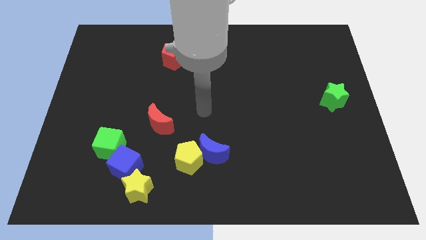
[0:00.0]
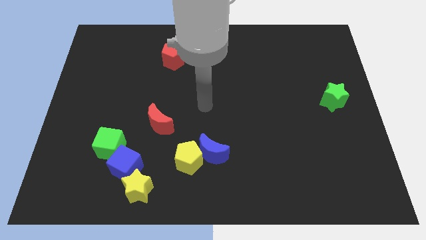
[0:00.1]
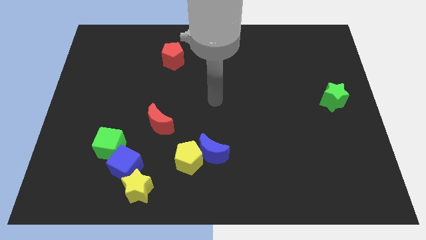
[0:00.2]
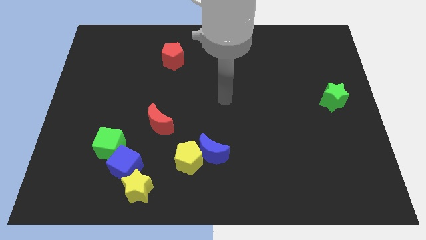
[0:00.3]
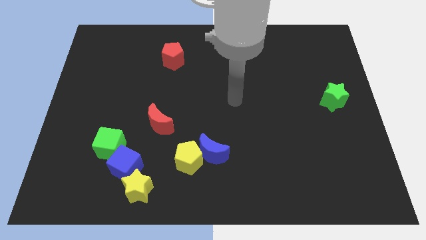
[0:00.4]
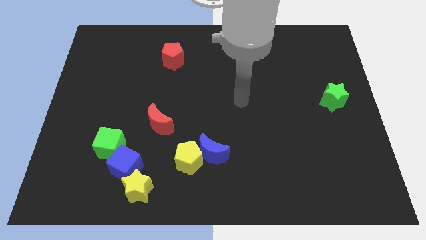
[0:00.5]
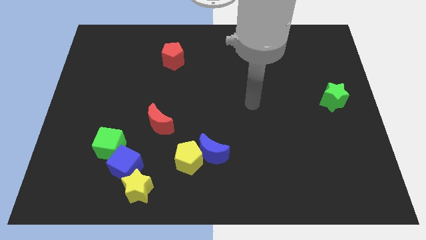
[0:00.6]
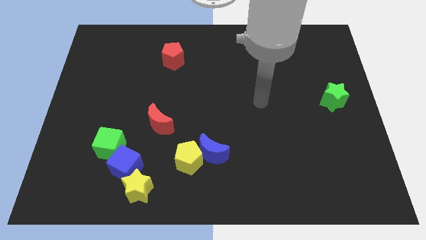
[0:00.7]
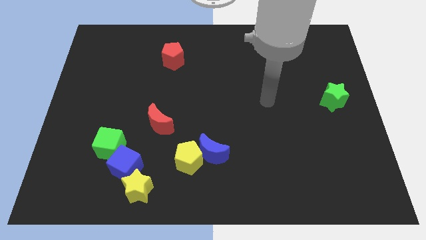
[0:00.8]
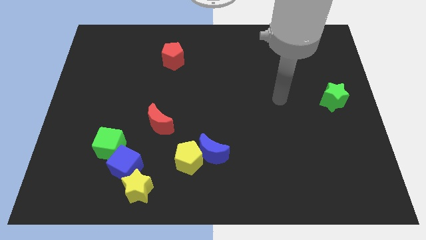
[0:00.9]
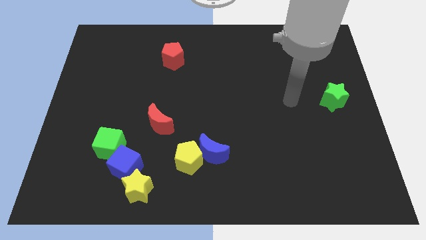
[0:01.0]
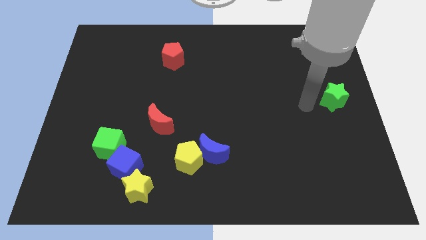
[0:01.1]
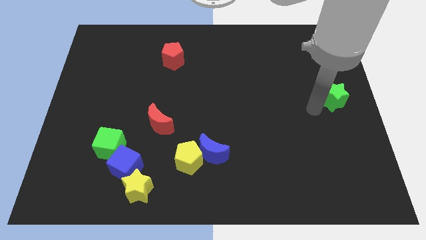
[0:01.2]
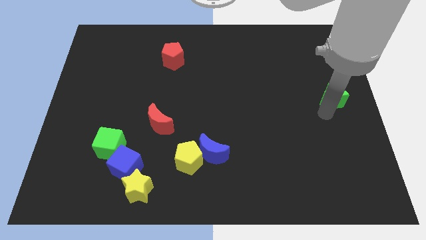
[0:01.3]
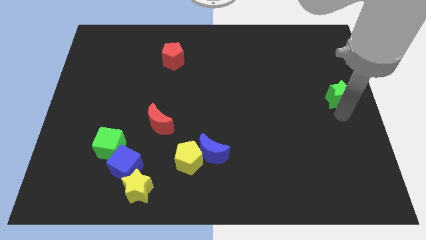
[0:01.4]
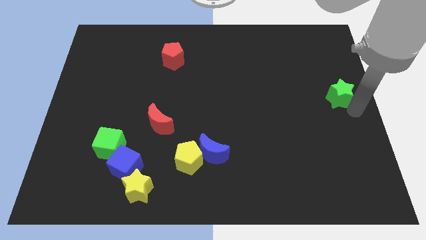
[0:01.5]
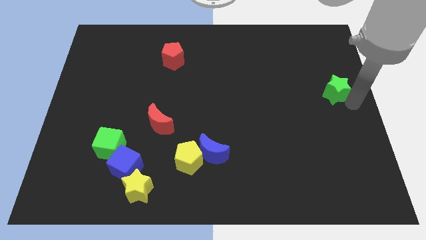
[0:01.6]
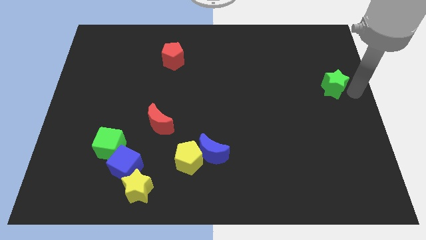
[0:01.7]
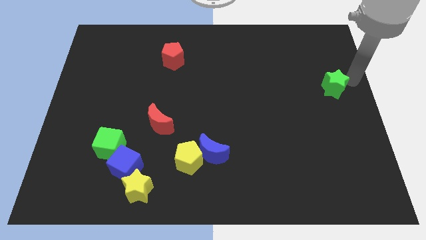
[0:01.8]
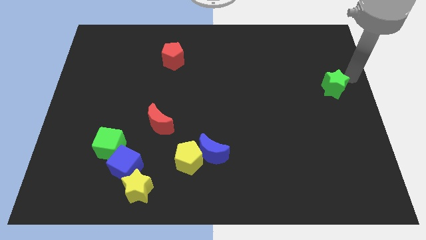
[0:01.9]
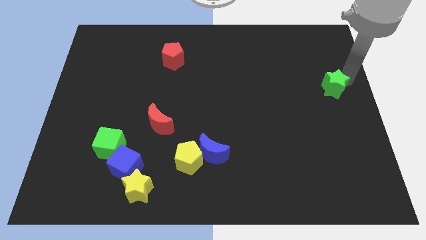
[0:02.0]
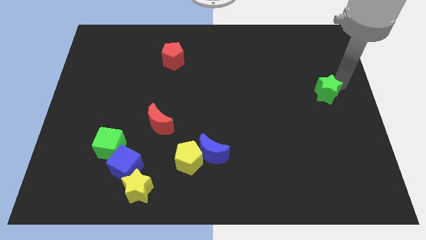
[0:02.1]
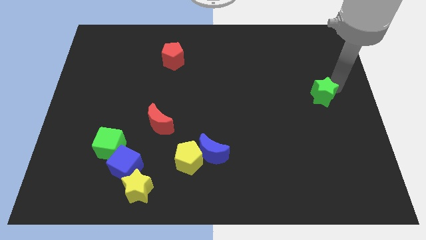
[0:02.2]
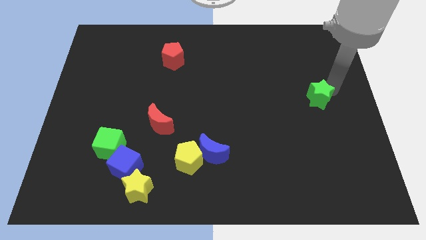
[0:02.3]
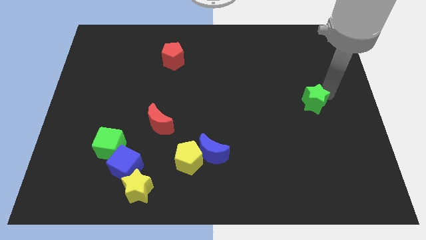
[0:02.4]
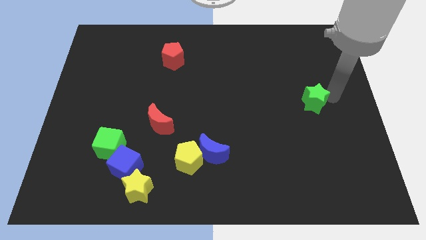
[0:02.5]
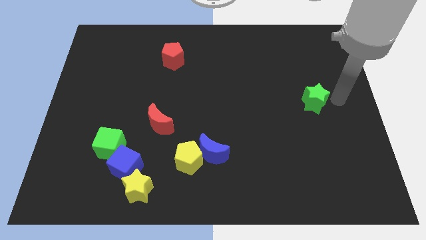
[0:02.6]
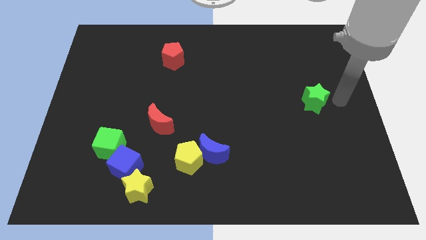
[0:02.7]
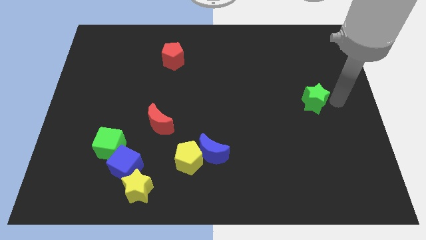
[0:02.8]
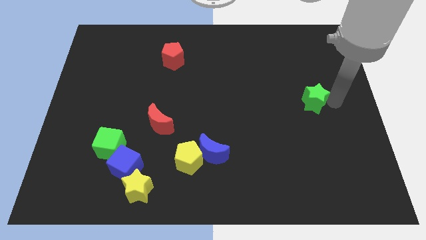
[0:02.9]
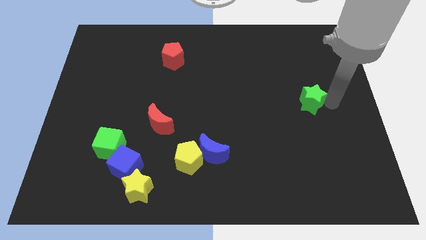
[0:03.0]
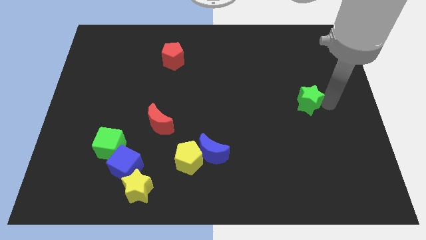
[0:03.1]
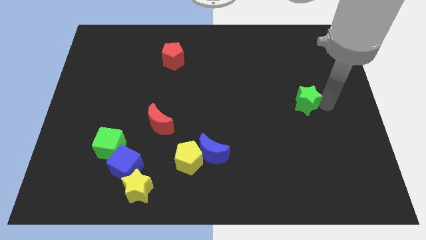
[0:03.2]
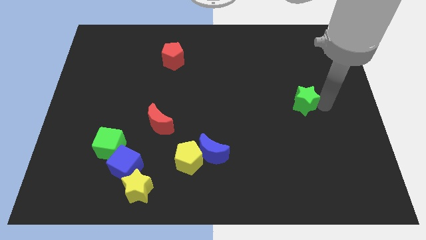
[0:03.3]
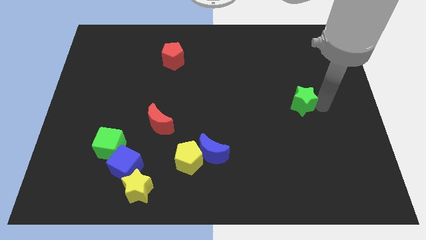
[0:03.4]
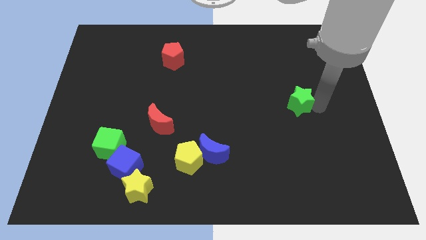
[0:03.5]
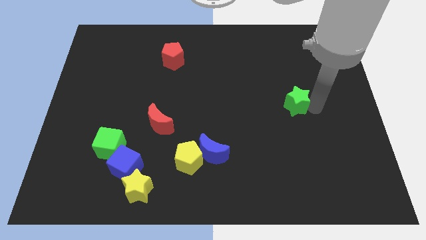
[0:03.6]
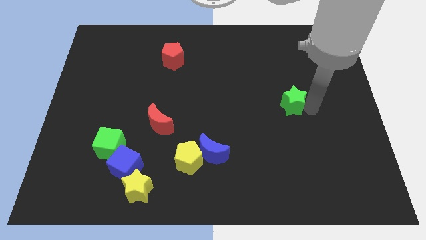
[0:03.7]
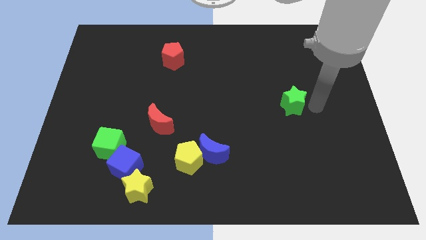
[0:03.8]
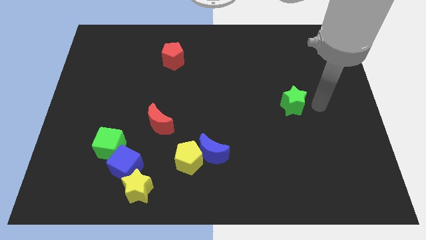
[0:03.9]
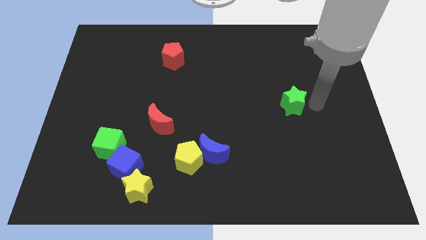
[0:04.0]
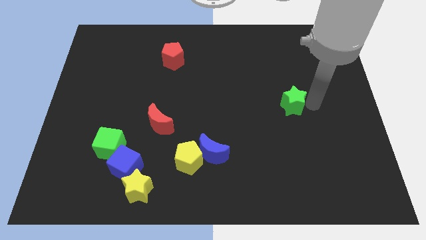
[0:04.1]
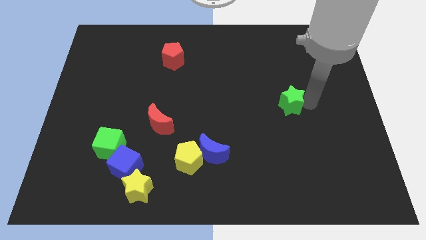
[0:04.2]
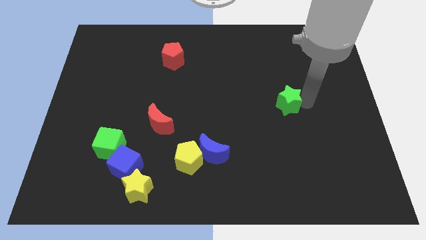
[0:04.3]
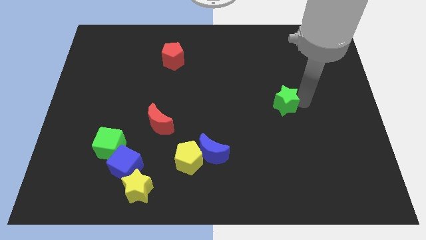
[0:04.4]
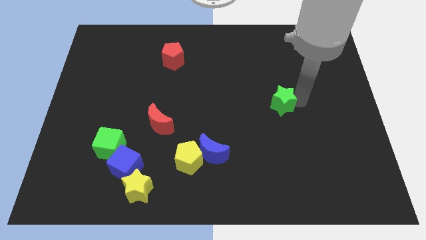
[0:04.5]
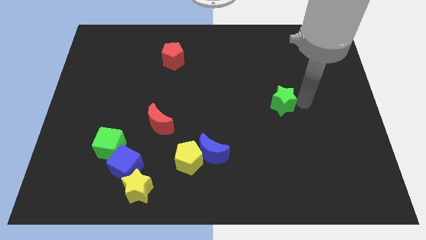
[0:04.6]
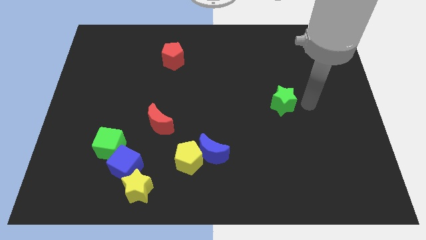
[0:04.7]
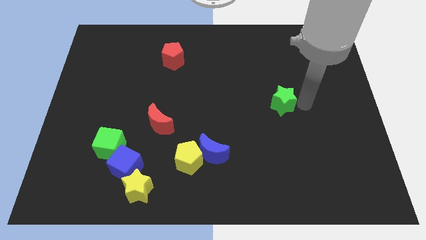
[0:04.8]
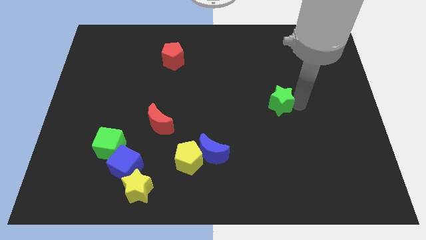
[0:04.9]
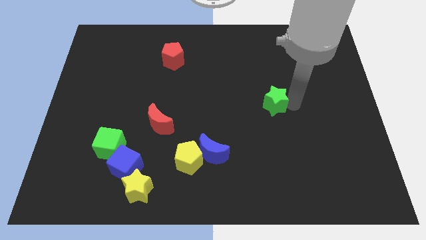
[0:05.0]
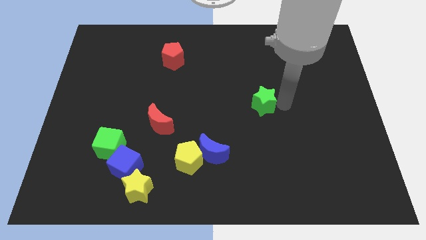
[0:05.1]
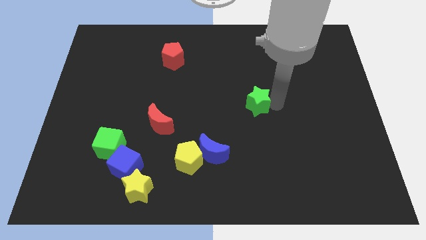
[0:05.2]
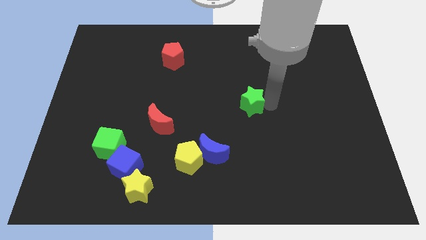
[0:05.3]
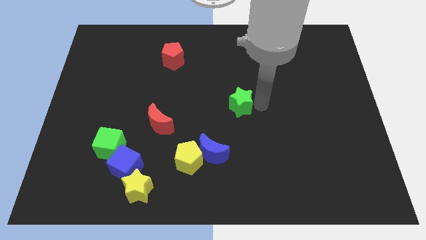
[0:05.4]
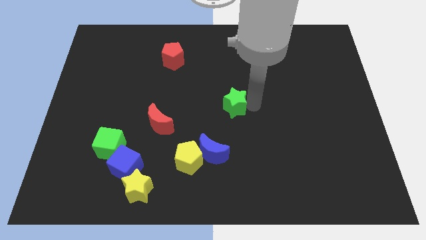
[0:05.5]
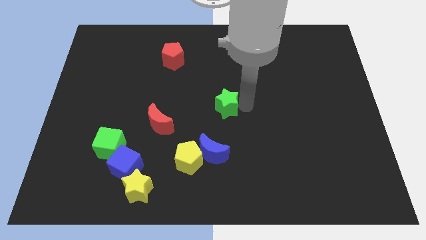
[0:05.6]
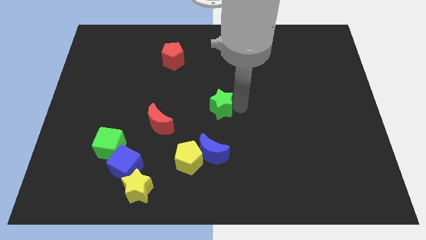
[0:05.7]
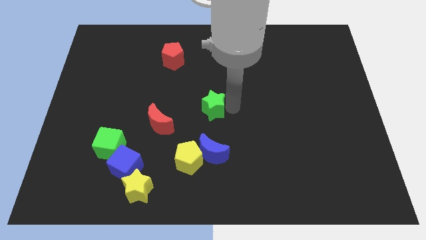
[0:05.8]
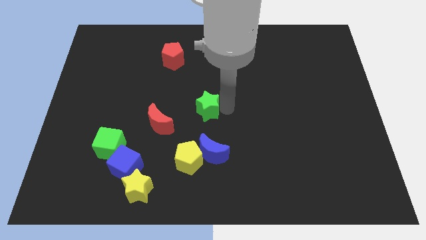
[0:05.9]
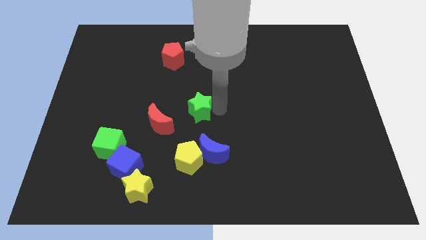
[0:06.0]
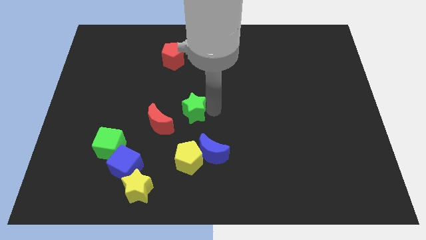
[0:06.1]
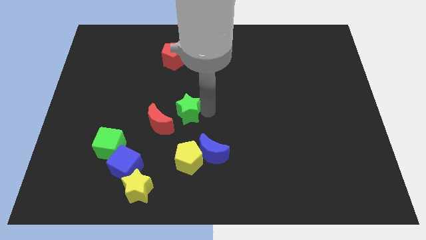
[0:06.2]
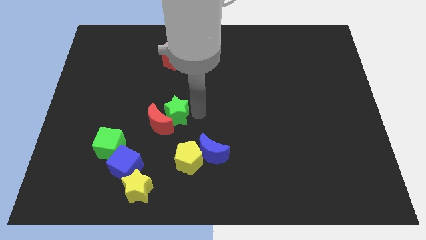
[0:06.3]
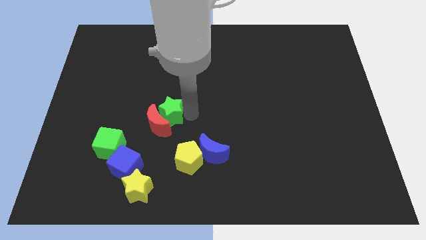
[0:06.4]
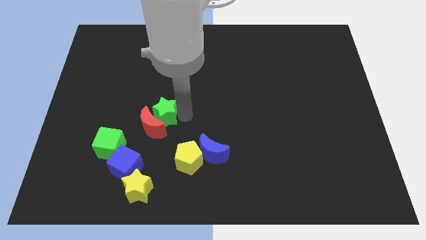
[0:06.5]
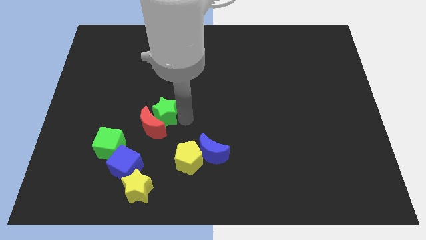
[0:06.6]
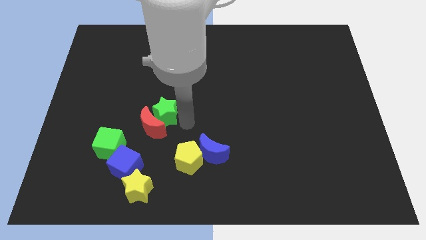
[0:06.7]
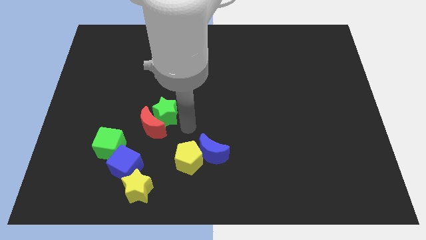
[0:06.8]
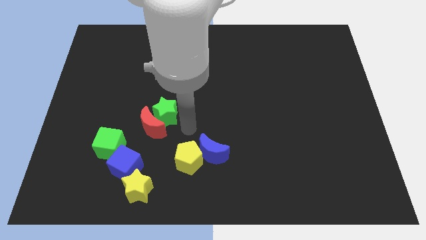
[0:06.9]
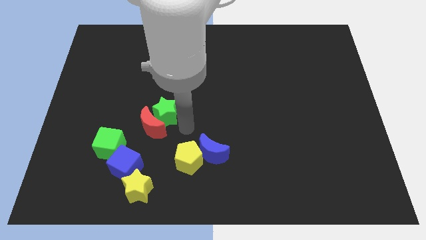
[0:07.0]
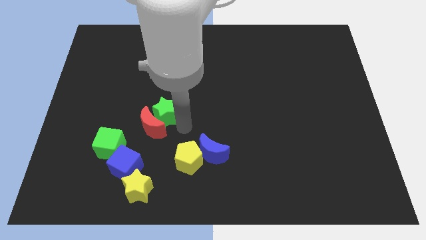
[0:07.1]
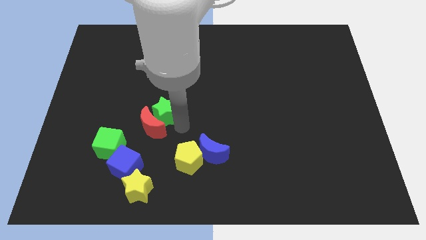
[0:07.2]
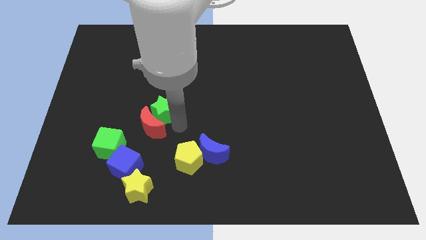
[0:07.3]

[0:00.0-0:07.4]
put the green star diagonally up and to the left of the red moon

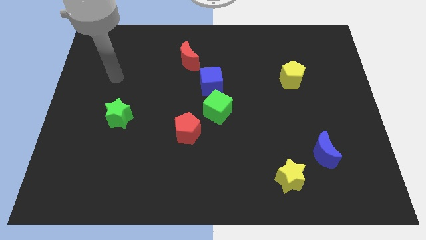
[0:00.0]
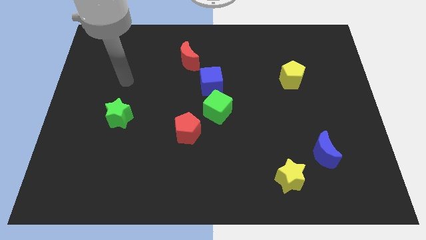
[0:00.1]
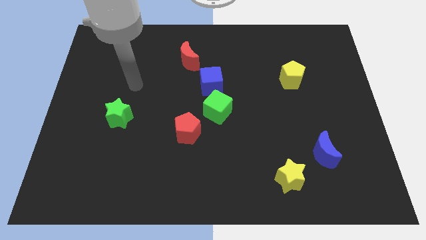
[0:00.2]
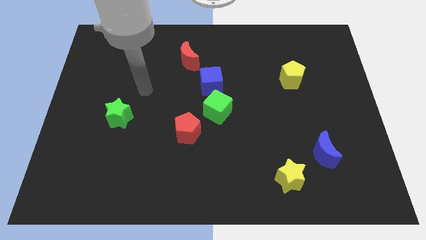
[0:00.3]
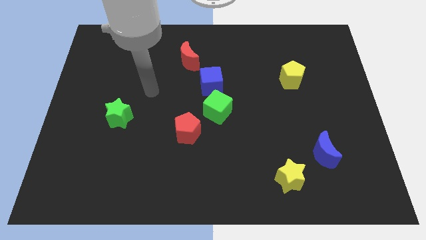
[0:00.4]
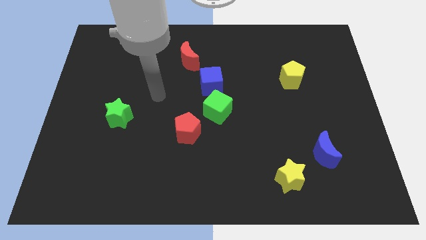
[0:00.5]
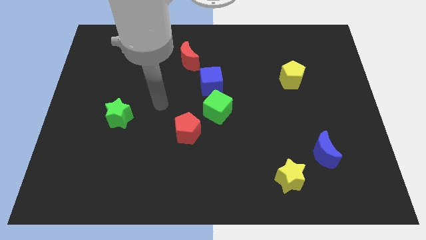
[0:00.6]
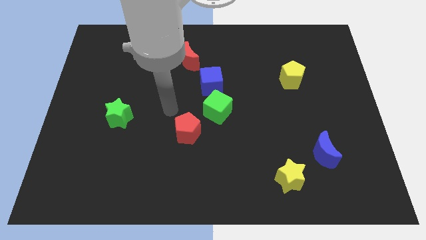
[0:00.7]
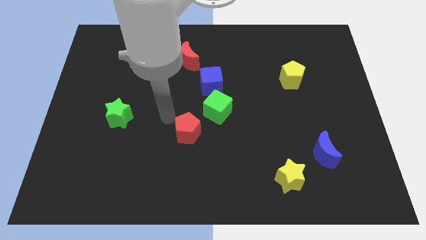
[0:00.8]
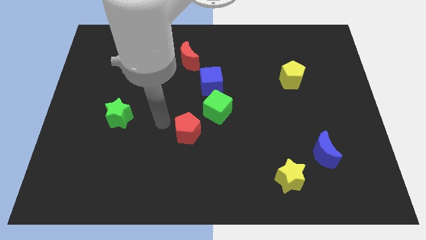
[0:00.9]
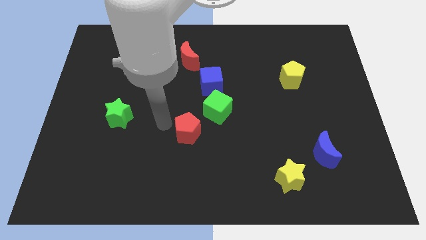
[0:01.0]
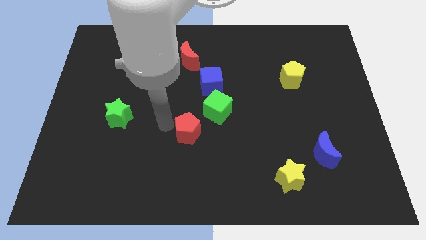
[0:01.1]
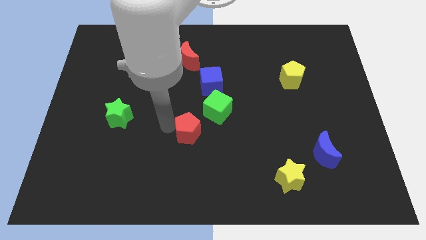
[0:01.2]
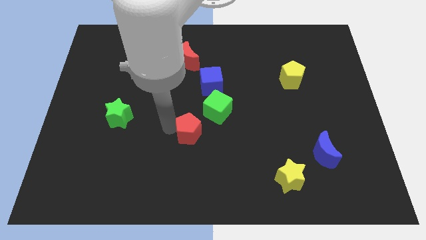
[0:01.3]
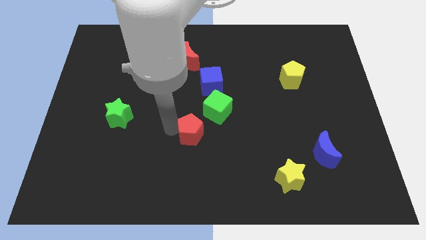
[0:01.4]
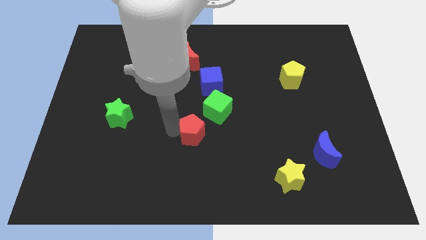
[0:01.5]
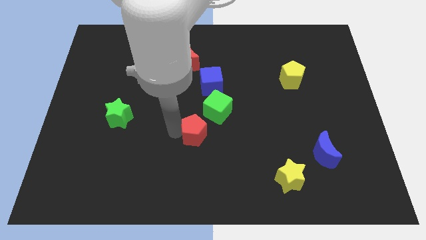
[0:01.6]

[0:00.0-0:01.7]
push the red pentagon below the blue cube
